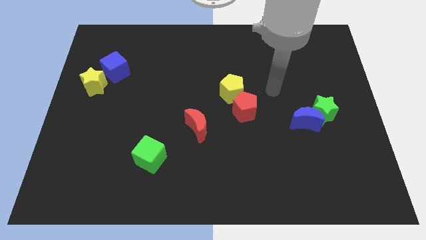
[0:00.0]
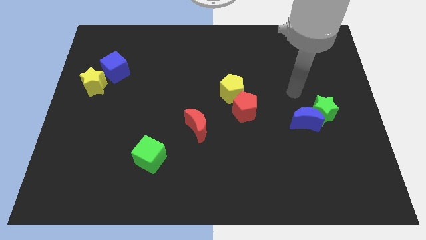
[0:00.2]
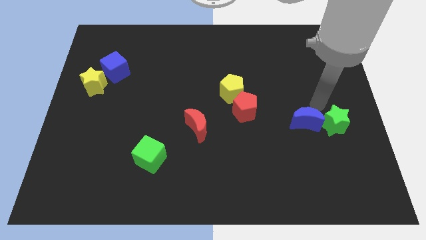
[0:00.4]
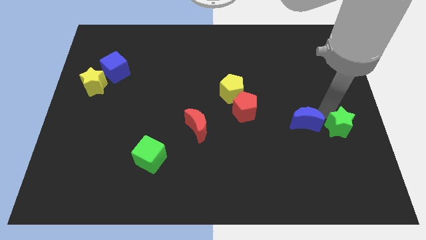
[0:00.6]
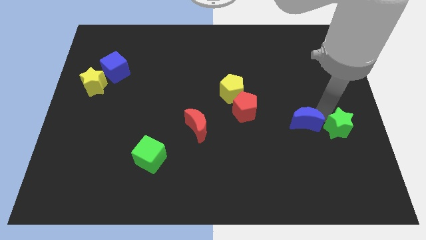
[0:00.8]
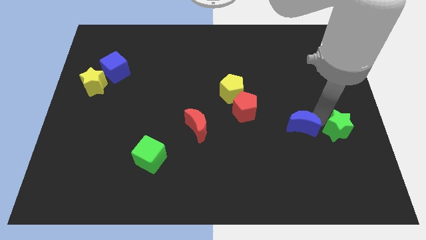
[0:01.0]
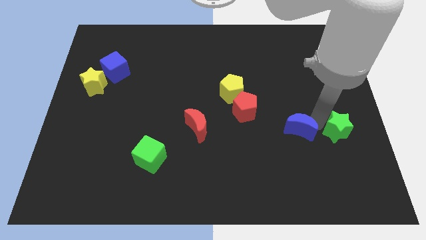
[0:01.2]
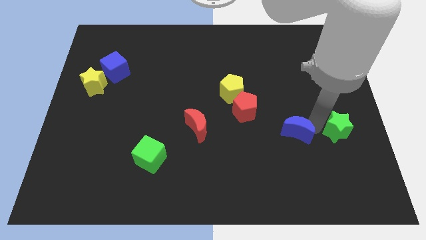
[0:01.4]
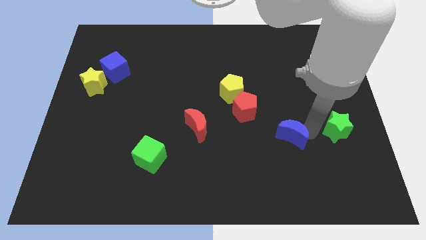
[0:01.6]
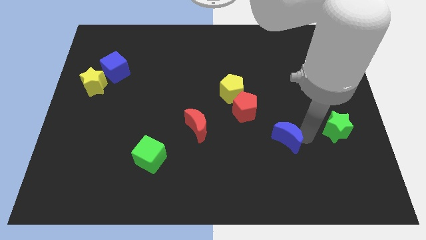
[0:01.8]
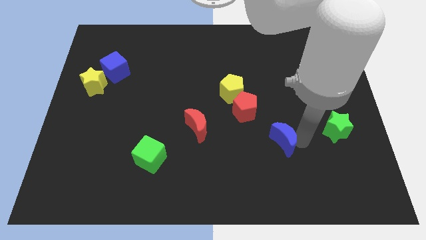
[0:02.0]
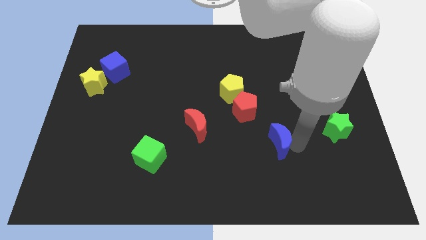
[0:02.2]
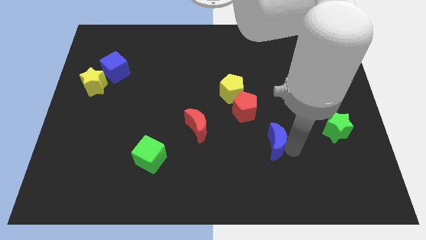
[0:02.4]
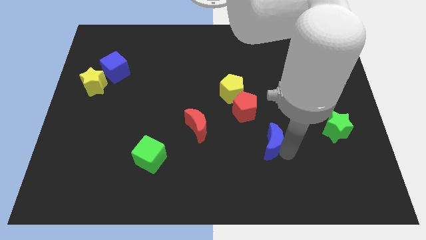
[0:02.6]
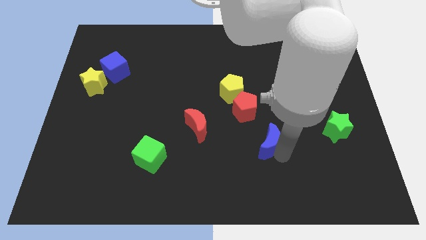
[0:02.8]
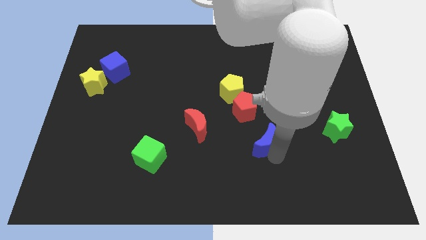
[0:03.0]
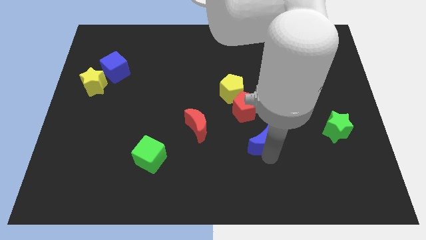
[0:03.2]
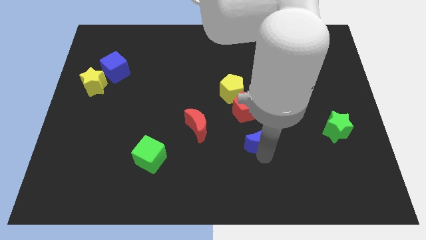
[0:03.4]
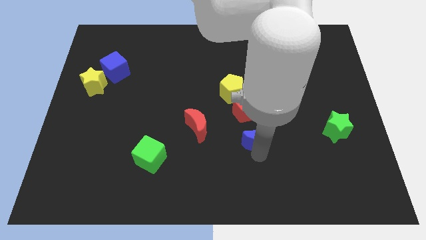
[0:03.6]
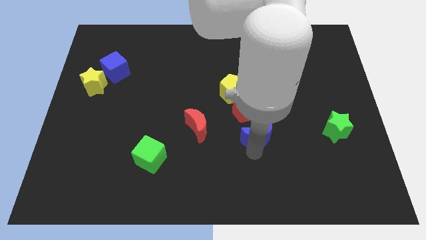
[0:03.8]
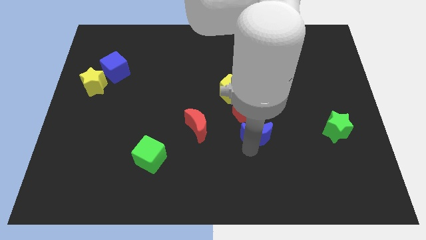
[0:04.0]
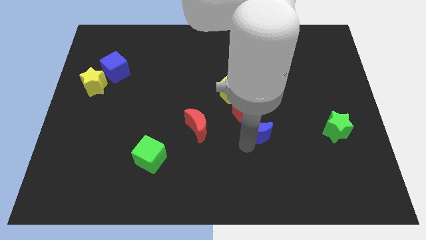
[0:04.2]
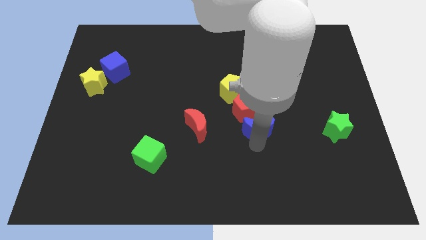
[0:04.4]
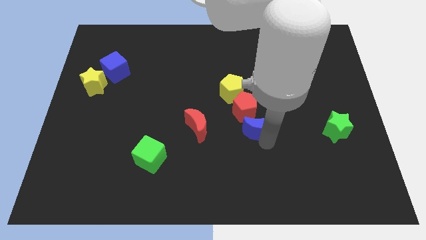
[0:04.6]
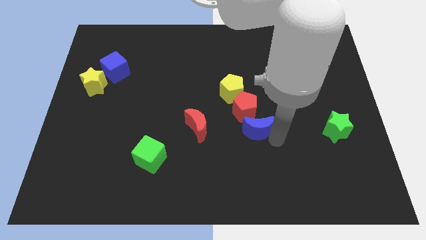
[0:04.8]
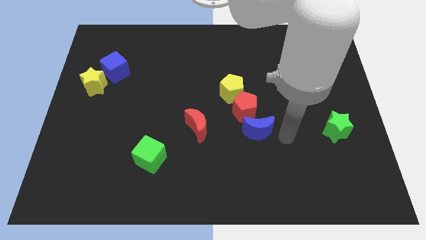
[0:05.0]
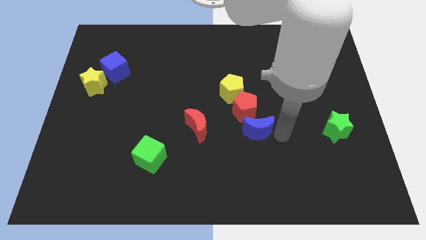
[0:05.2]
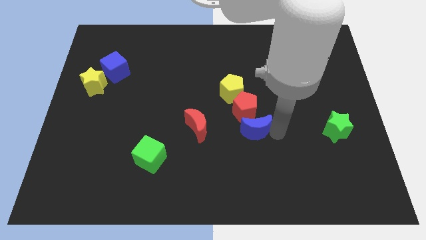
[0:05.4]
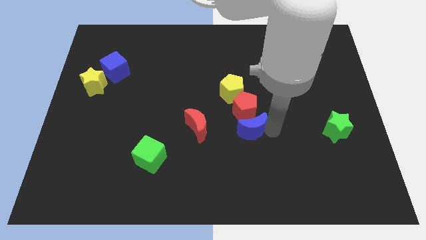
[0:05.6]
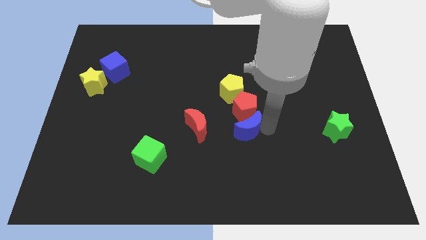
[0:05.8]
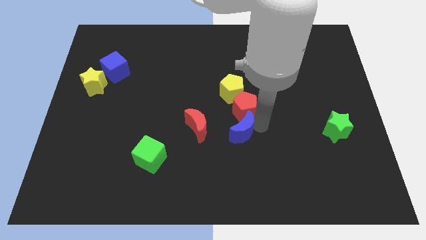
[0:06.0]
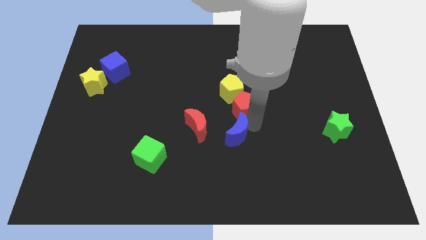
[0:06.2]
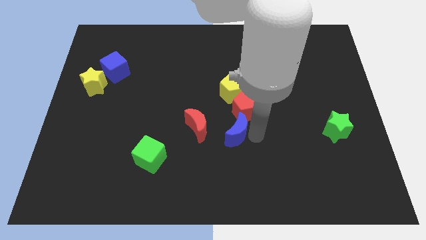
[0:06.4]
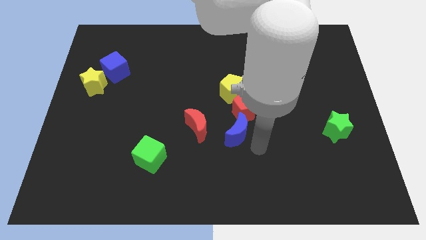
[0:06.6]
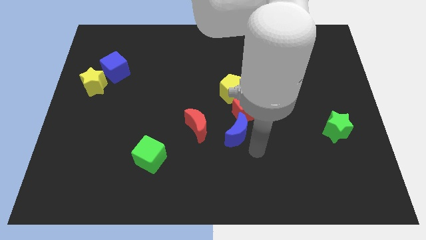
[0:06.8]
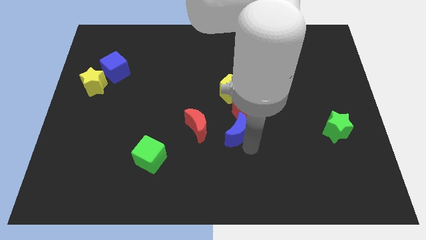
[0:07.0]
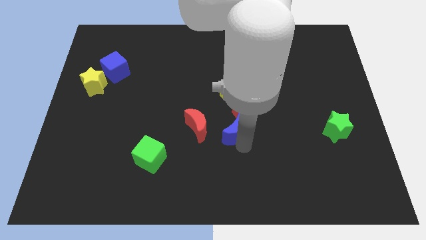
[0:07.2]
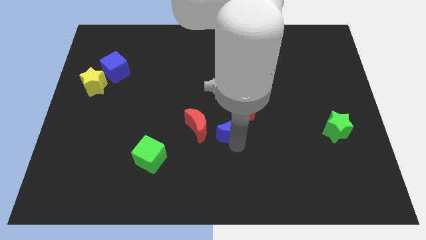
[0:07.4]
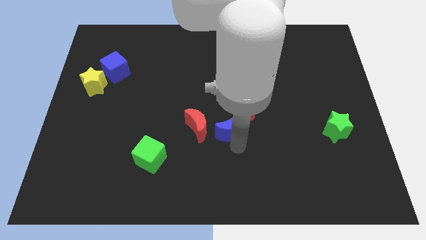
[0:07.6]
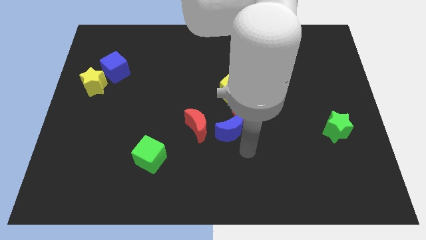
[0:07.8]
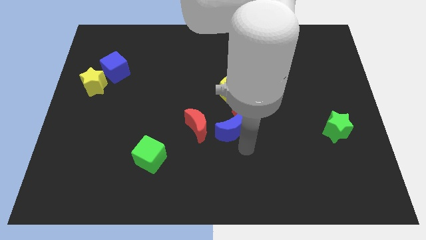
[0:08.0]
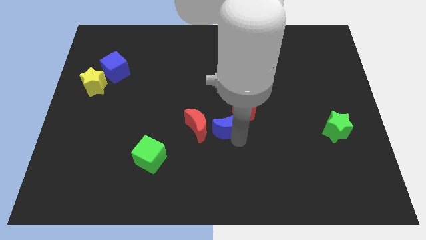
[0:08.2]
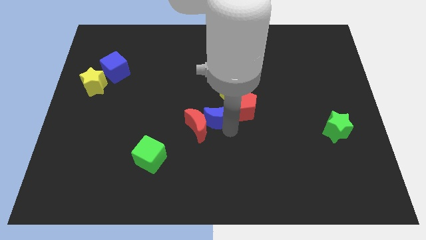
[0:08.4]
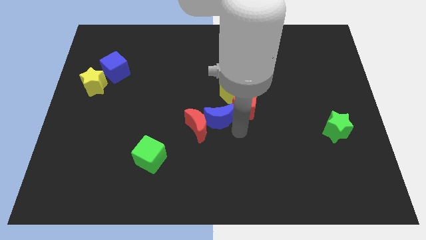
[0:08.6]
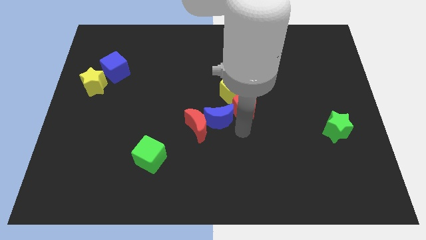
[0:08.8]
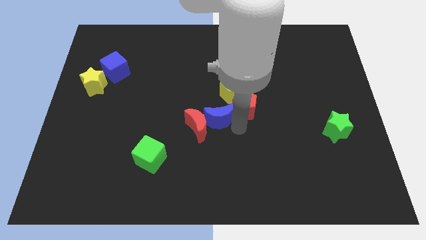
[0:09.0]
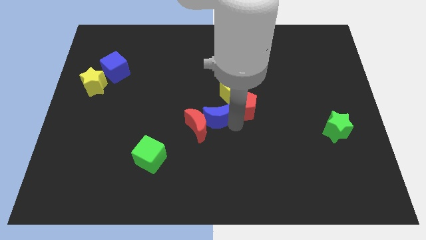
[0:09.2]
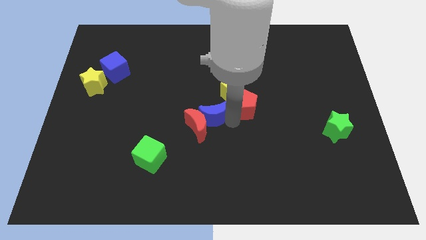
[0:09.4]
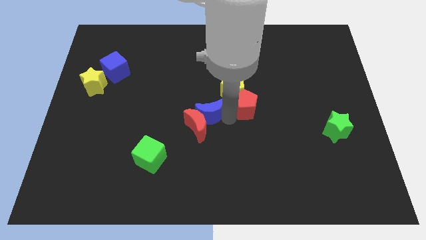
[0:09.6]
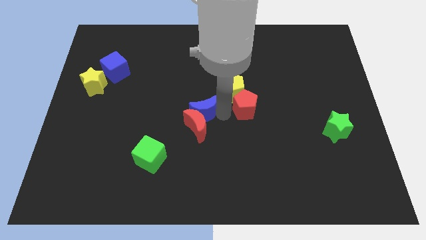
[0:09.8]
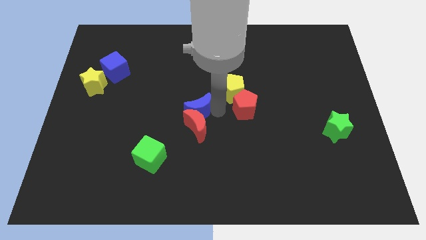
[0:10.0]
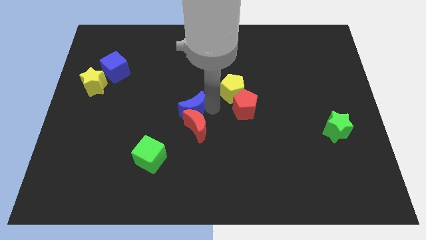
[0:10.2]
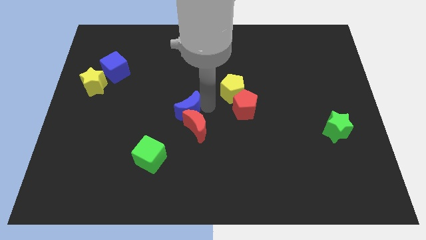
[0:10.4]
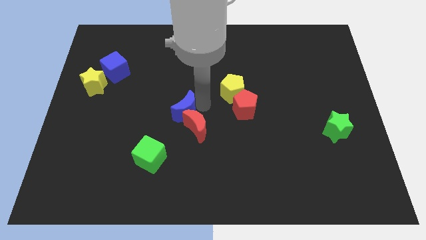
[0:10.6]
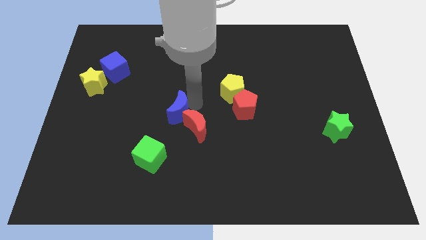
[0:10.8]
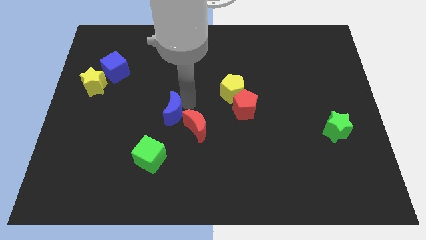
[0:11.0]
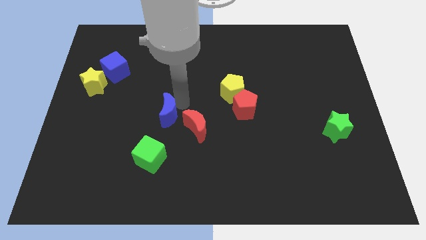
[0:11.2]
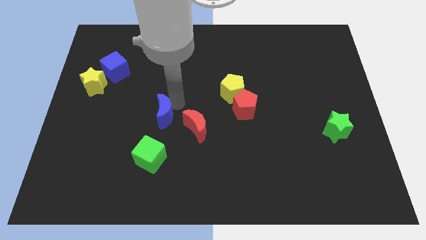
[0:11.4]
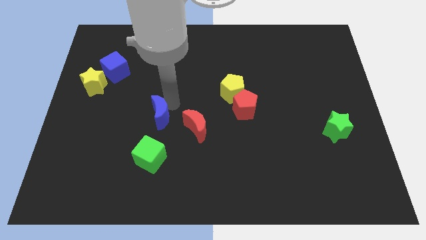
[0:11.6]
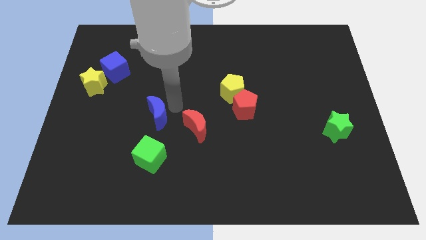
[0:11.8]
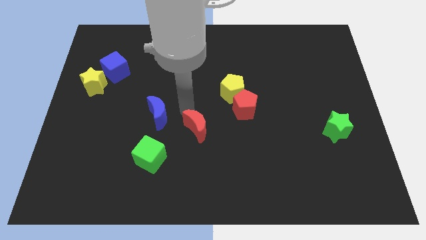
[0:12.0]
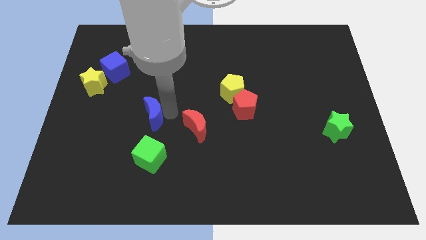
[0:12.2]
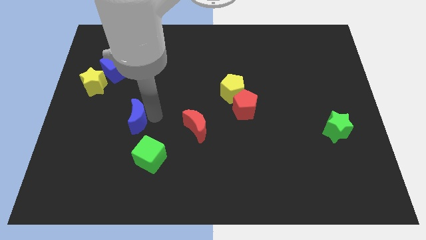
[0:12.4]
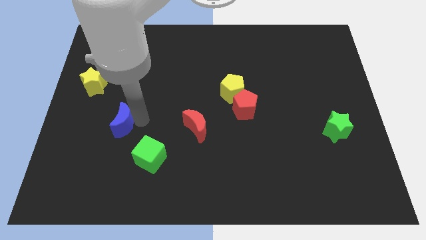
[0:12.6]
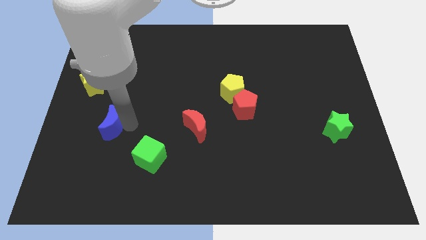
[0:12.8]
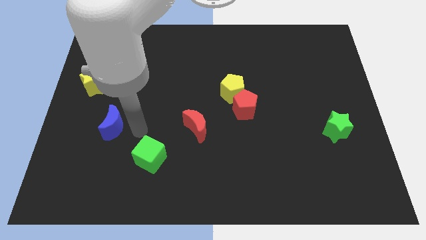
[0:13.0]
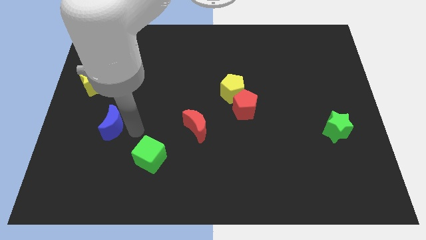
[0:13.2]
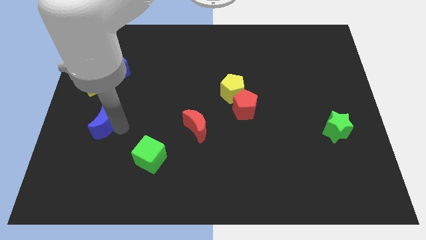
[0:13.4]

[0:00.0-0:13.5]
push the blue moon to the bottom side of the yellow star
